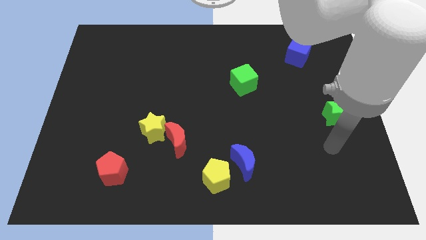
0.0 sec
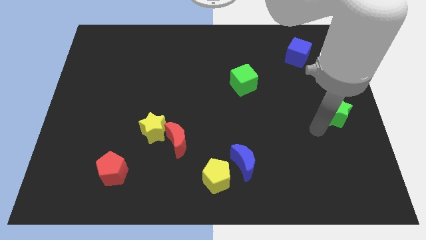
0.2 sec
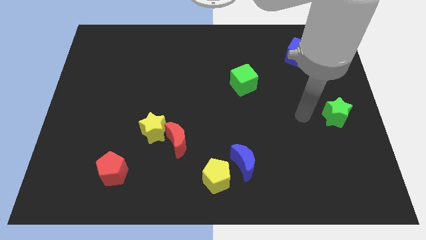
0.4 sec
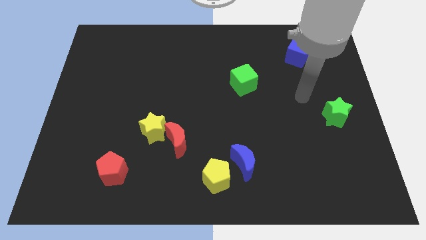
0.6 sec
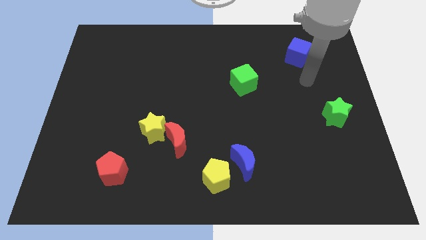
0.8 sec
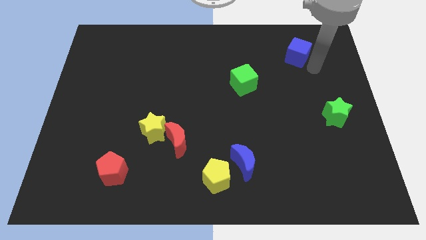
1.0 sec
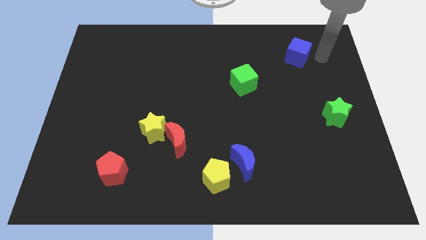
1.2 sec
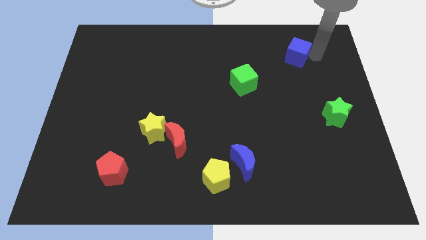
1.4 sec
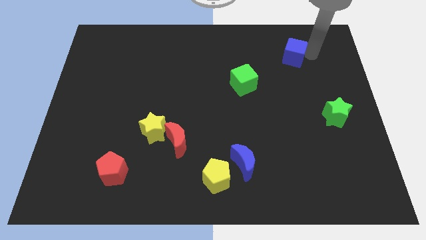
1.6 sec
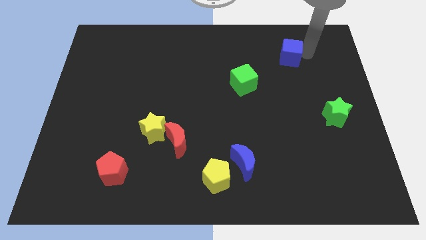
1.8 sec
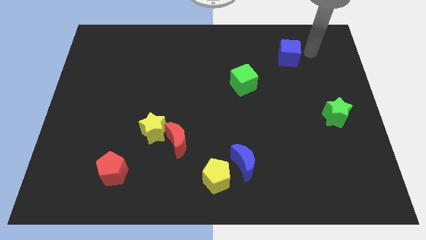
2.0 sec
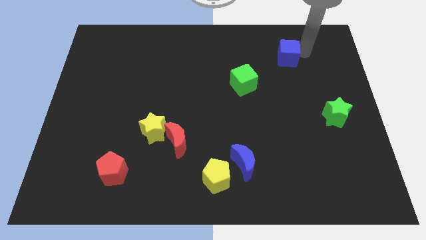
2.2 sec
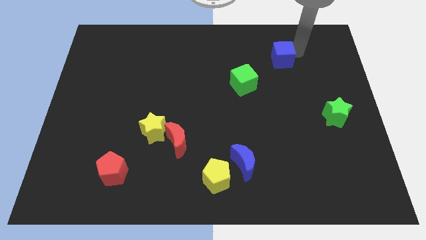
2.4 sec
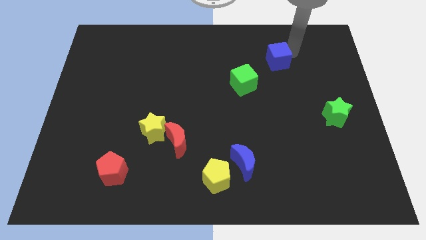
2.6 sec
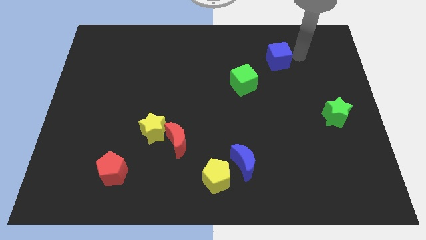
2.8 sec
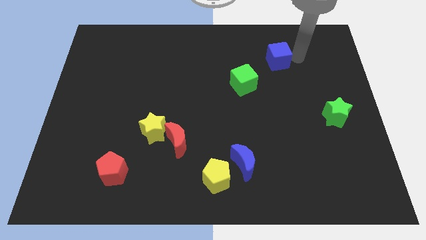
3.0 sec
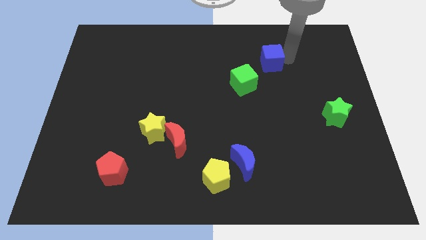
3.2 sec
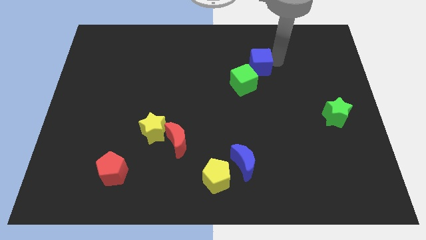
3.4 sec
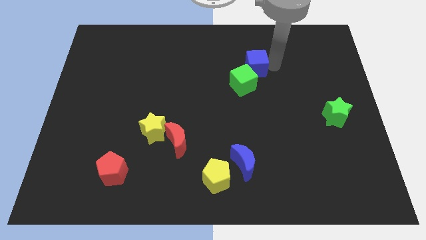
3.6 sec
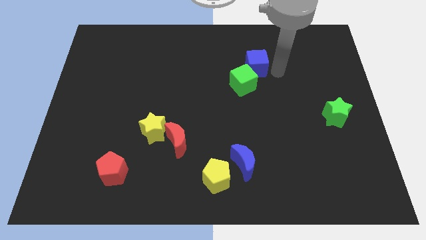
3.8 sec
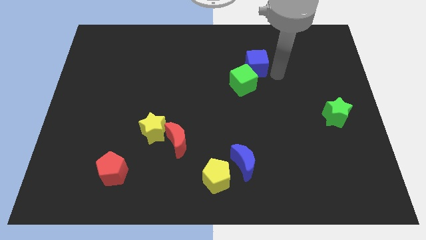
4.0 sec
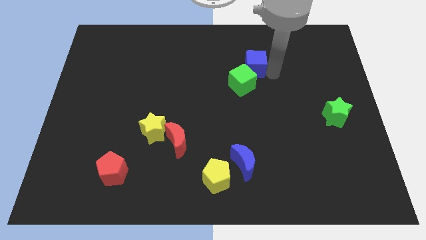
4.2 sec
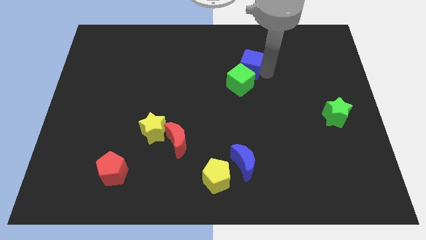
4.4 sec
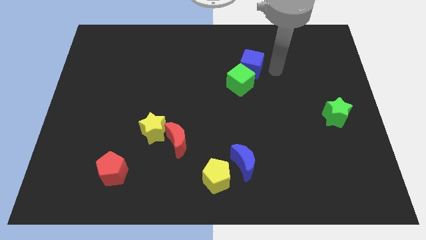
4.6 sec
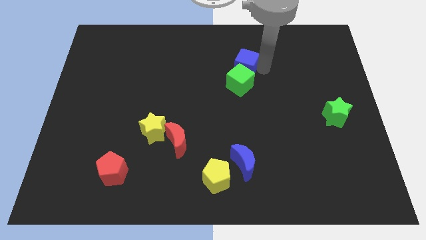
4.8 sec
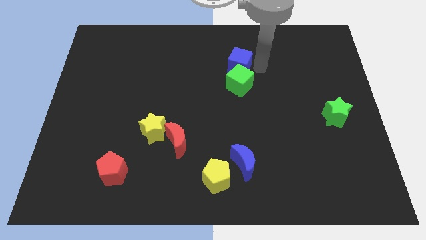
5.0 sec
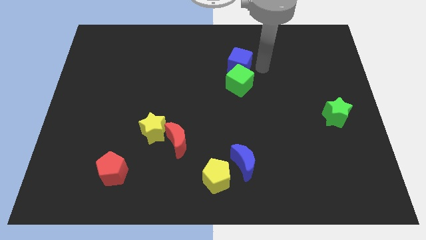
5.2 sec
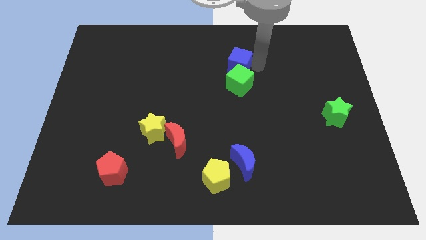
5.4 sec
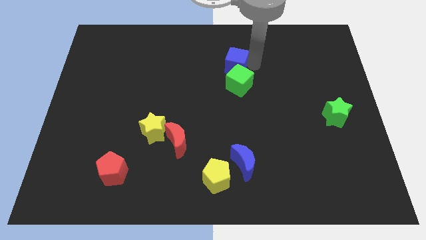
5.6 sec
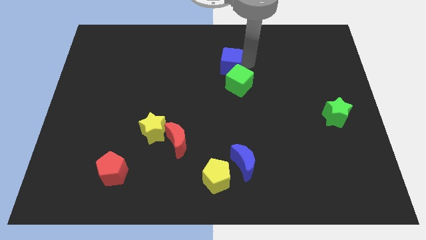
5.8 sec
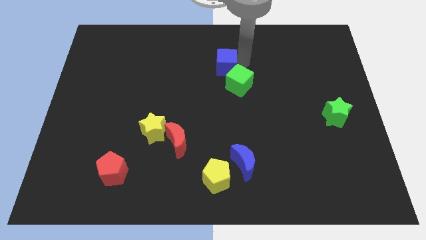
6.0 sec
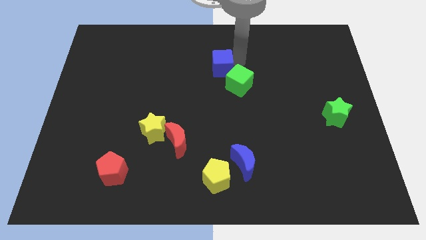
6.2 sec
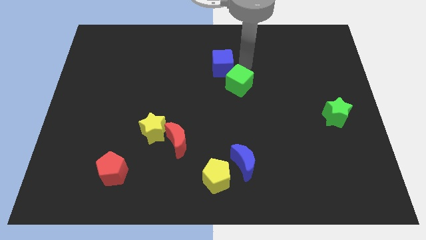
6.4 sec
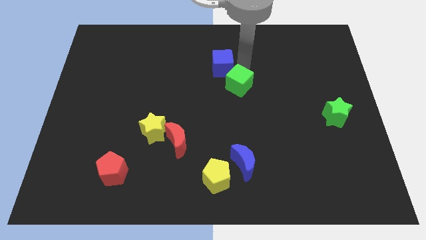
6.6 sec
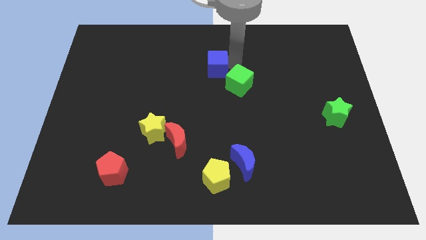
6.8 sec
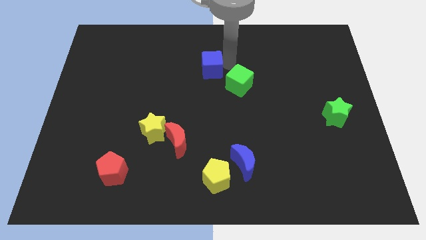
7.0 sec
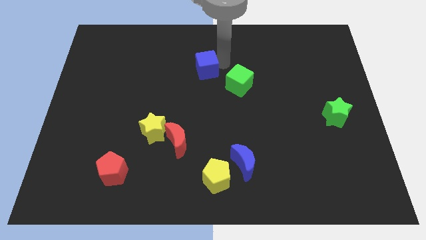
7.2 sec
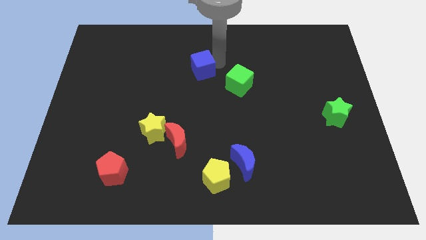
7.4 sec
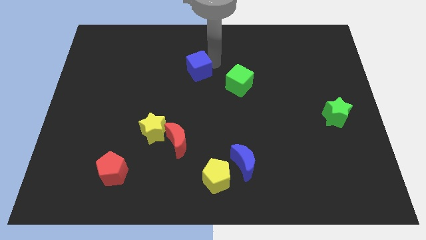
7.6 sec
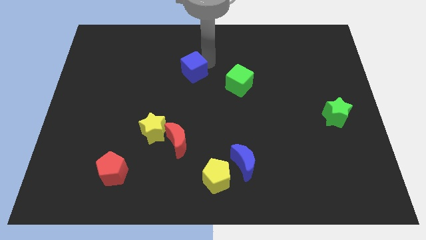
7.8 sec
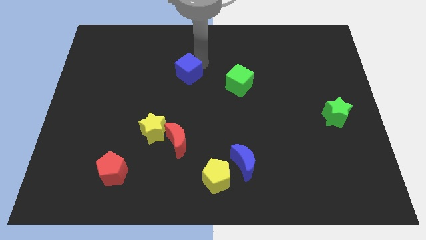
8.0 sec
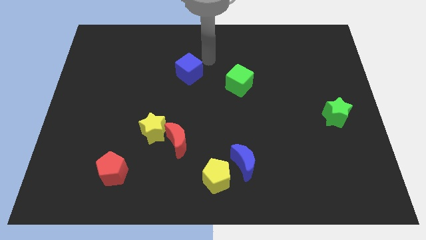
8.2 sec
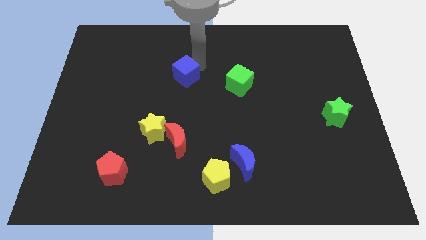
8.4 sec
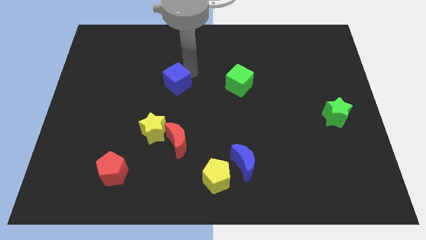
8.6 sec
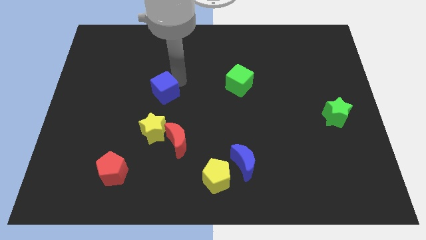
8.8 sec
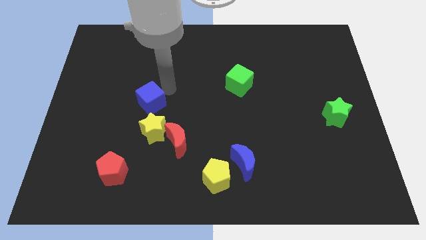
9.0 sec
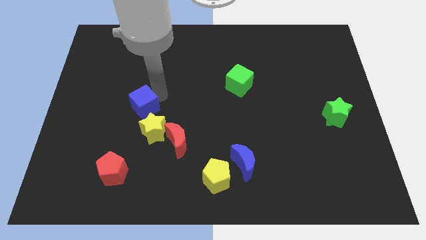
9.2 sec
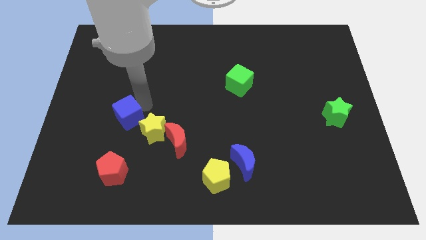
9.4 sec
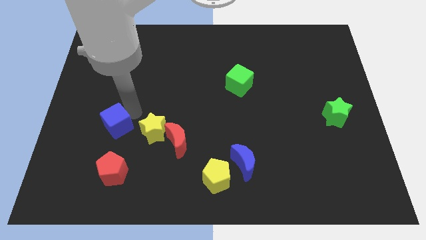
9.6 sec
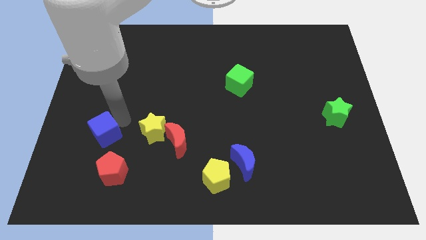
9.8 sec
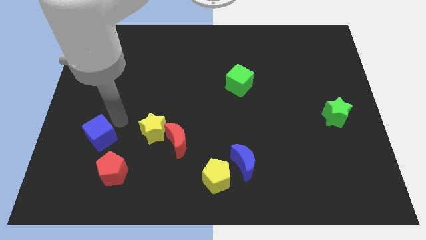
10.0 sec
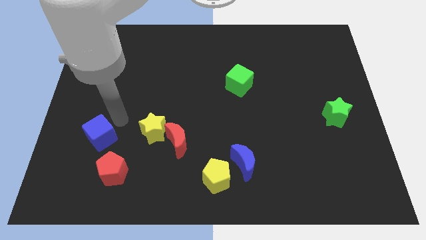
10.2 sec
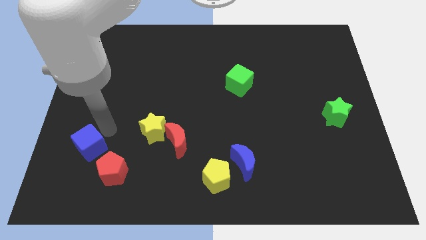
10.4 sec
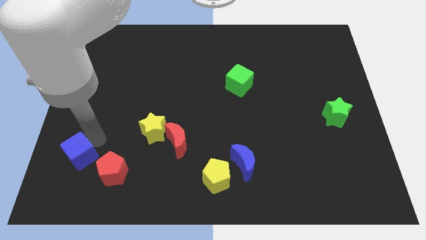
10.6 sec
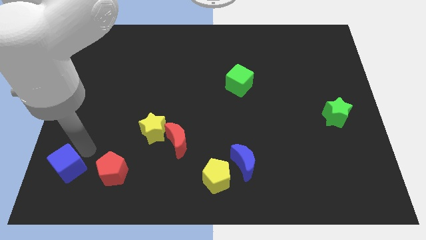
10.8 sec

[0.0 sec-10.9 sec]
slide the blue cube to the bottom left of the board

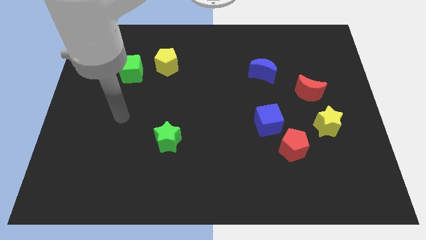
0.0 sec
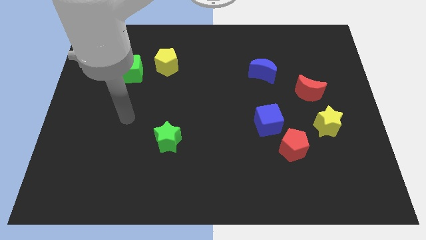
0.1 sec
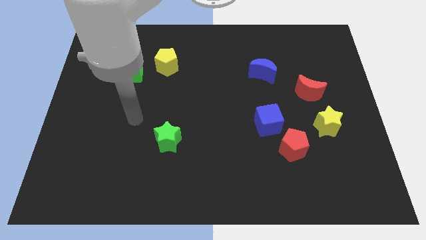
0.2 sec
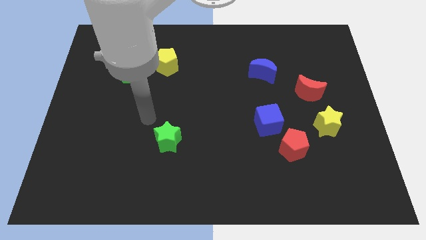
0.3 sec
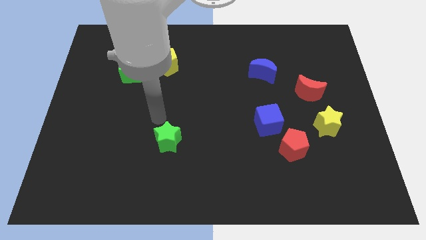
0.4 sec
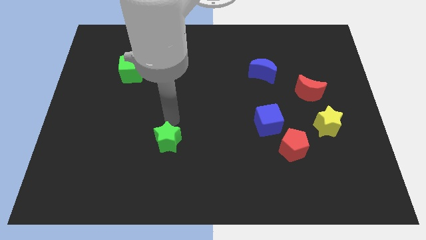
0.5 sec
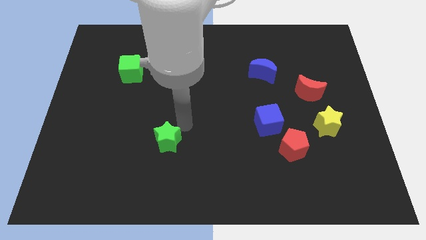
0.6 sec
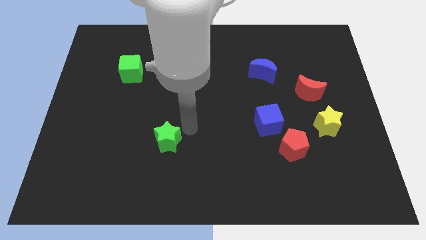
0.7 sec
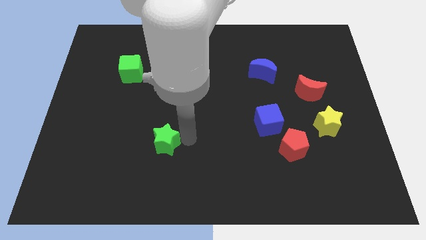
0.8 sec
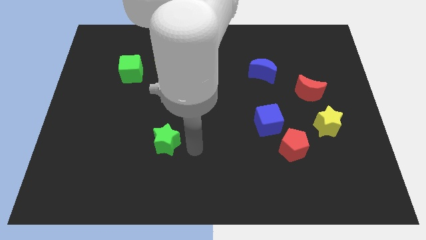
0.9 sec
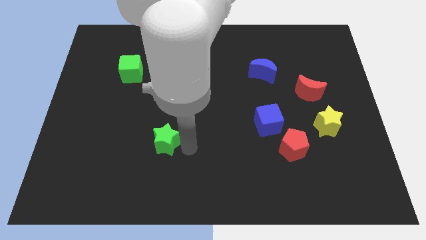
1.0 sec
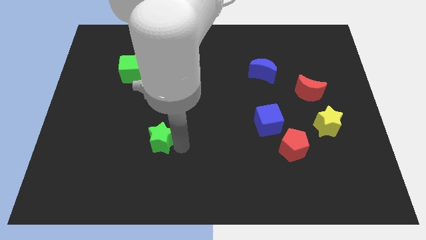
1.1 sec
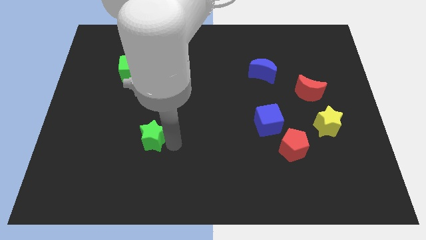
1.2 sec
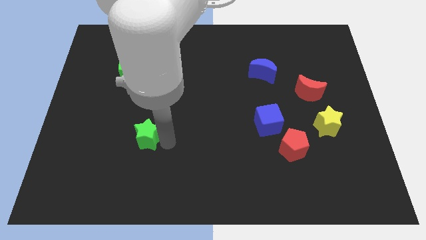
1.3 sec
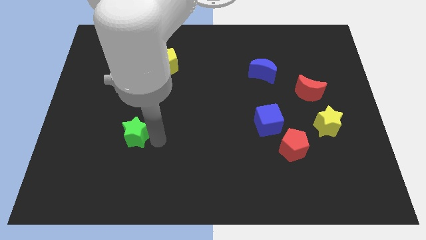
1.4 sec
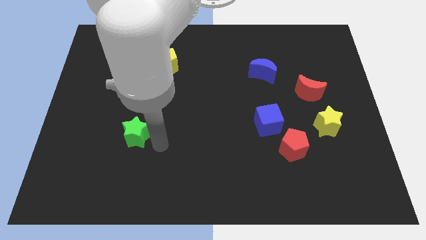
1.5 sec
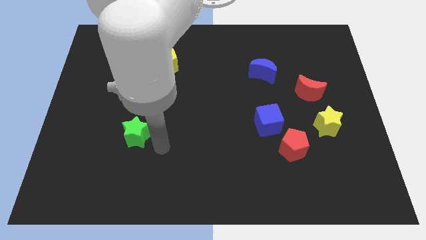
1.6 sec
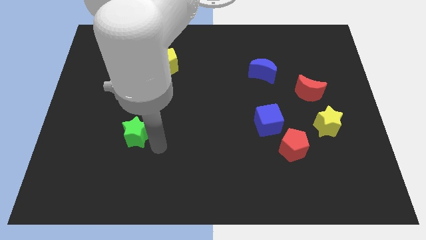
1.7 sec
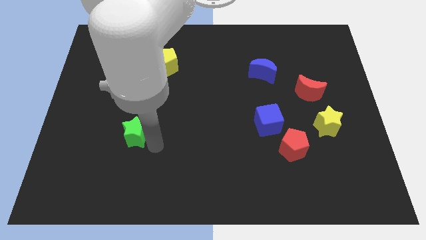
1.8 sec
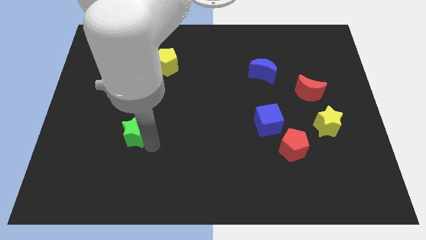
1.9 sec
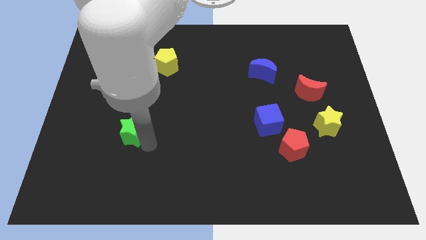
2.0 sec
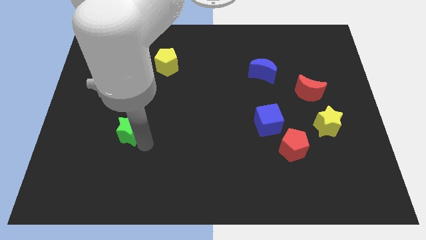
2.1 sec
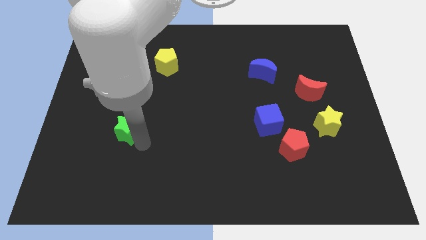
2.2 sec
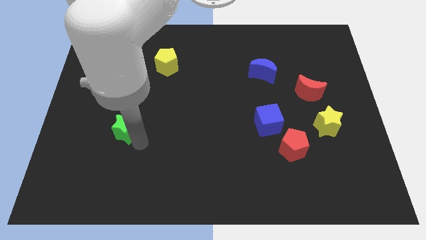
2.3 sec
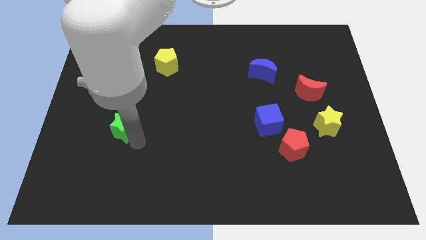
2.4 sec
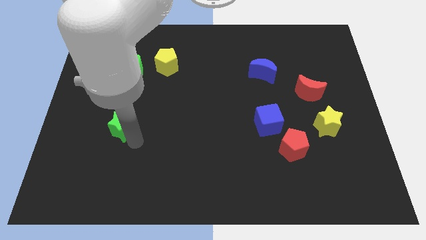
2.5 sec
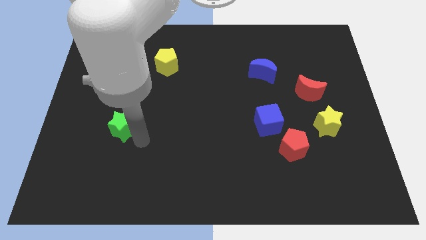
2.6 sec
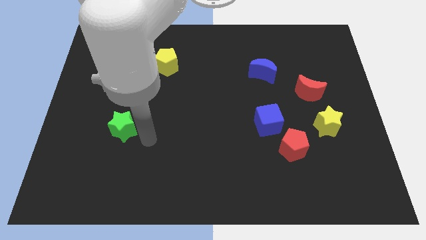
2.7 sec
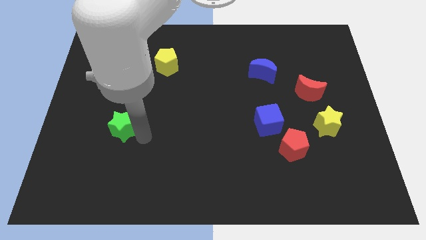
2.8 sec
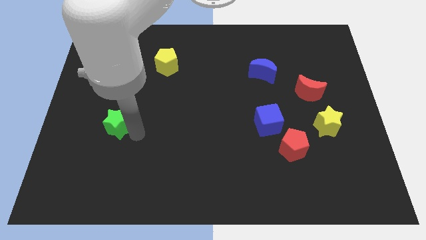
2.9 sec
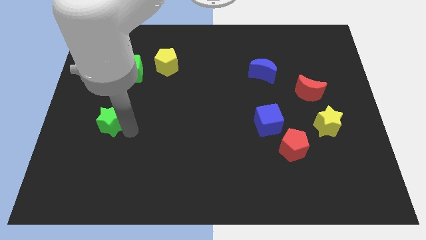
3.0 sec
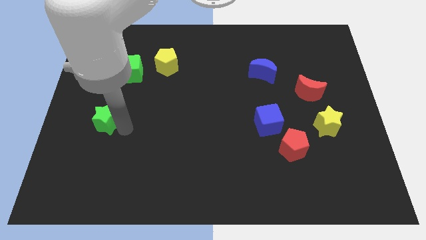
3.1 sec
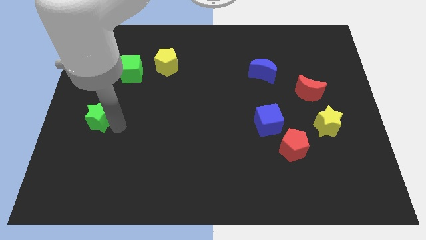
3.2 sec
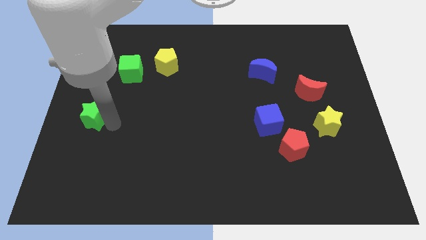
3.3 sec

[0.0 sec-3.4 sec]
slide the green star to the left side of the board
